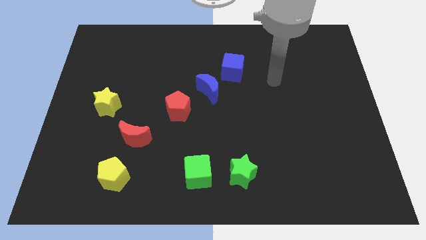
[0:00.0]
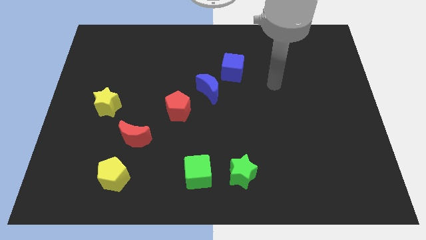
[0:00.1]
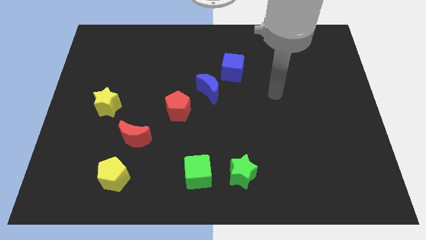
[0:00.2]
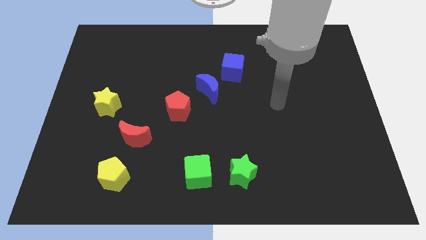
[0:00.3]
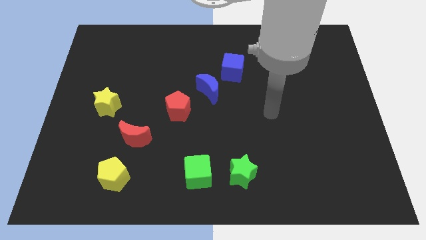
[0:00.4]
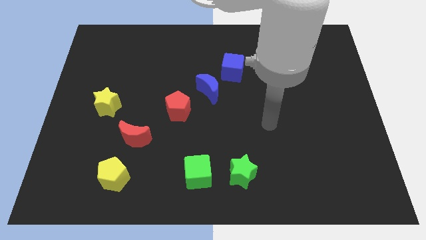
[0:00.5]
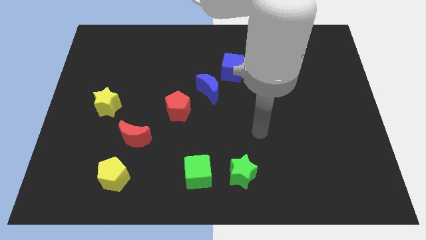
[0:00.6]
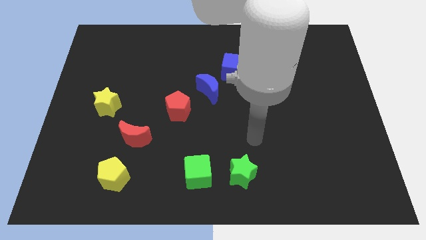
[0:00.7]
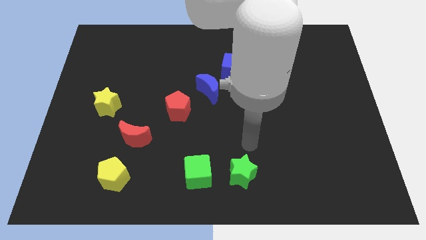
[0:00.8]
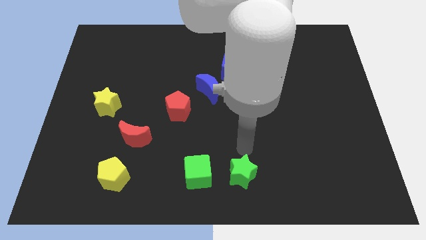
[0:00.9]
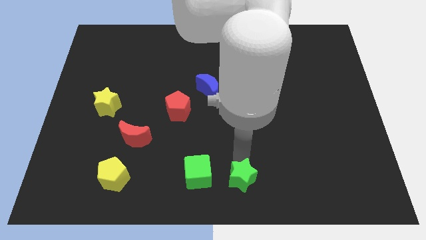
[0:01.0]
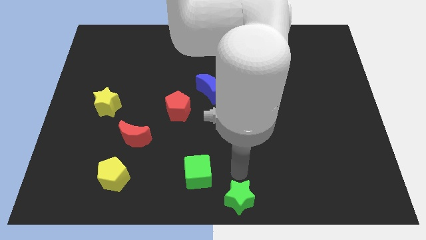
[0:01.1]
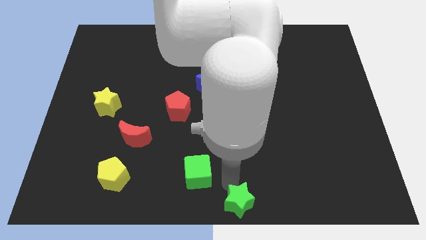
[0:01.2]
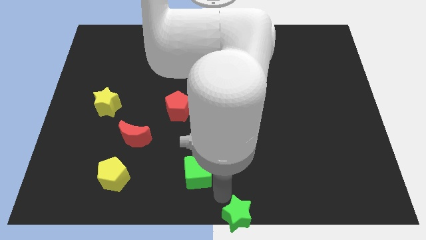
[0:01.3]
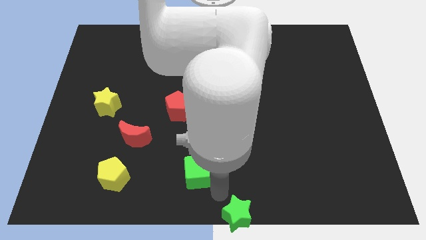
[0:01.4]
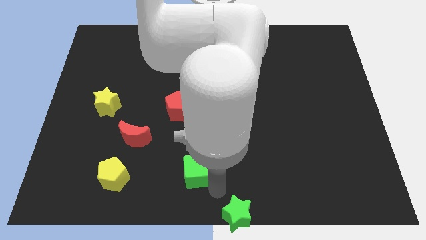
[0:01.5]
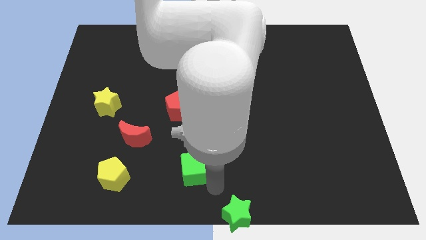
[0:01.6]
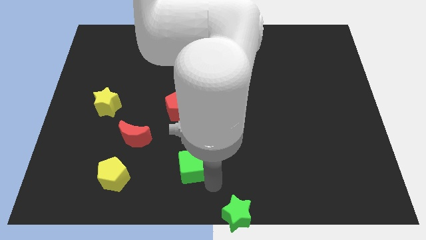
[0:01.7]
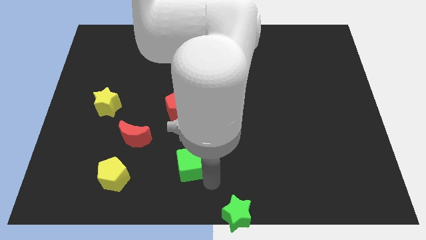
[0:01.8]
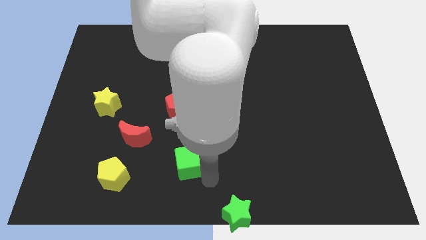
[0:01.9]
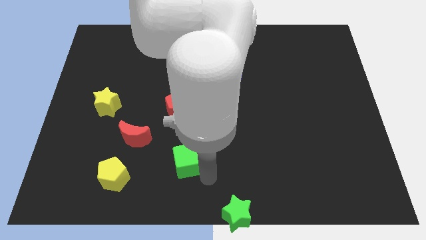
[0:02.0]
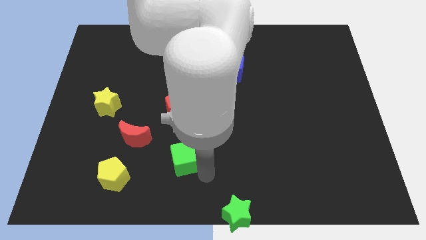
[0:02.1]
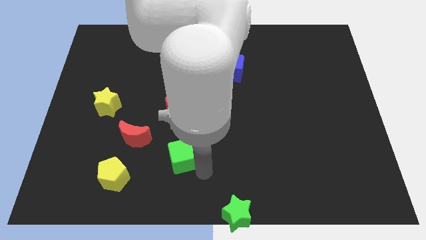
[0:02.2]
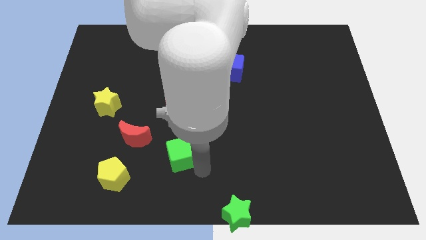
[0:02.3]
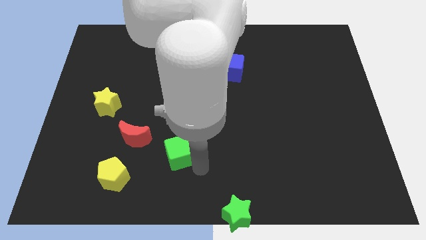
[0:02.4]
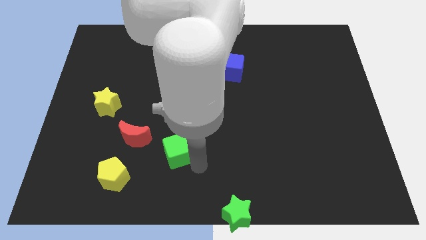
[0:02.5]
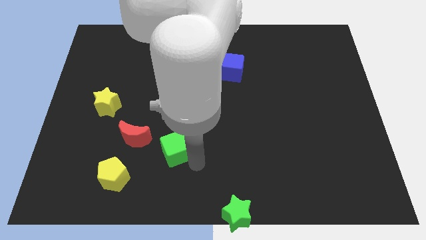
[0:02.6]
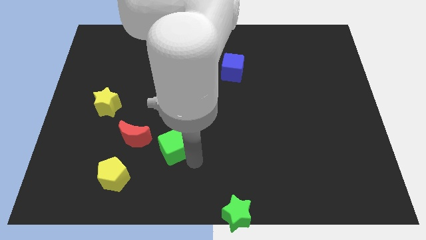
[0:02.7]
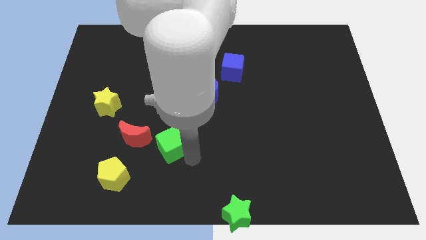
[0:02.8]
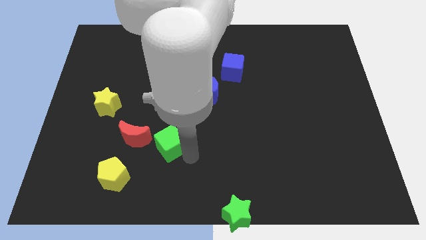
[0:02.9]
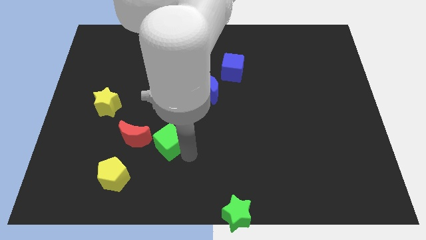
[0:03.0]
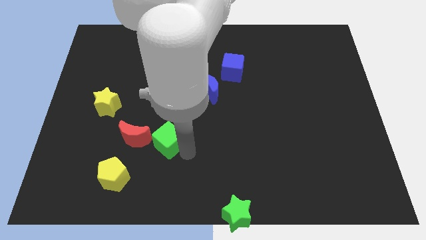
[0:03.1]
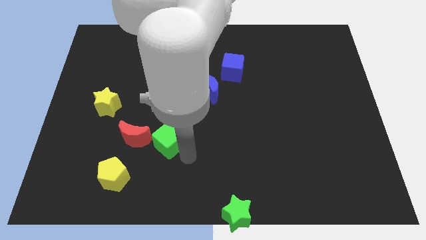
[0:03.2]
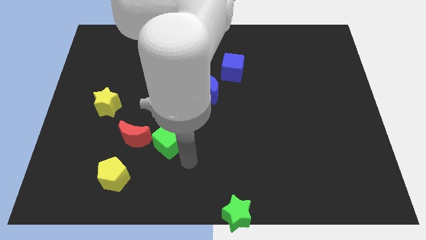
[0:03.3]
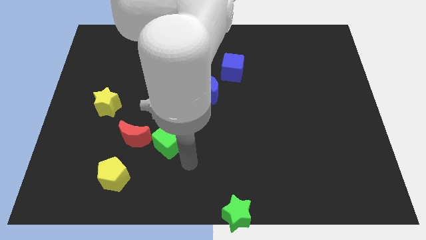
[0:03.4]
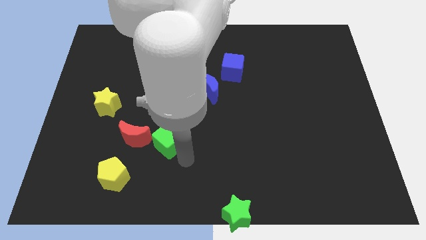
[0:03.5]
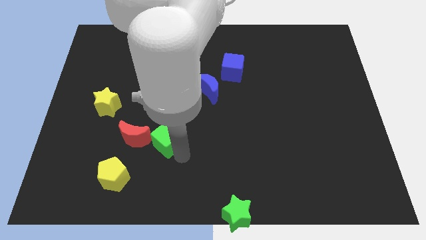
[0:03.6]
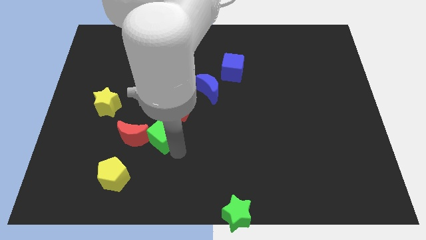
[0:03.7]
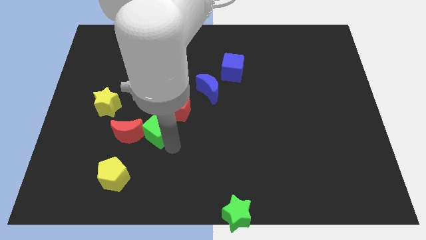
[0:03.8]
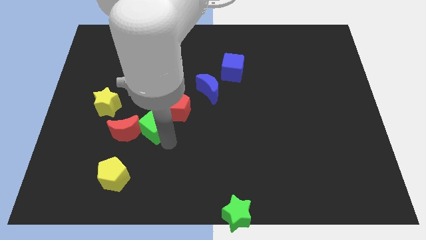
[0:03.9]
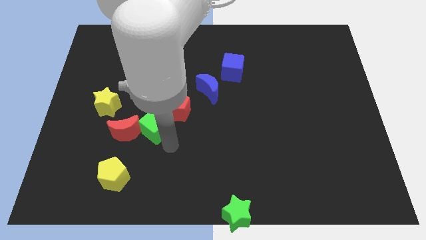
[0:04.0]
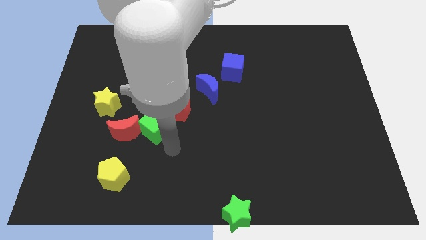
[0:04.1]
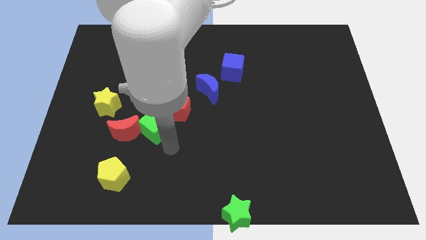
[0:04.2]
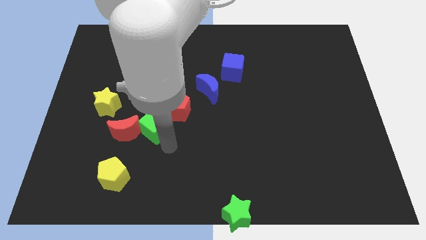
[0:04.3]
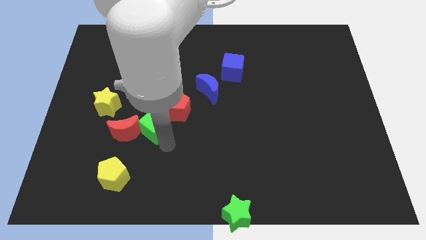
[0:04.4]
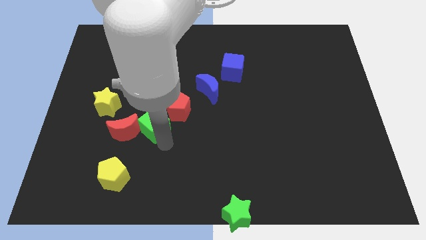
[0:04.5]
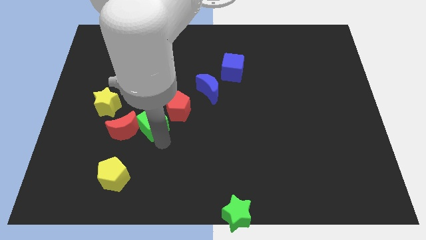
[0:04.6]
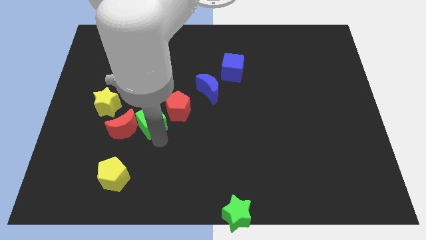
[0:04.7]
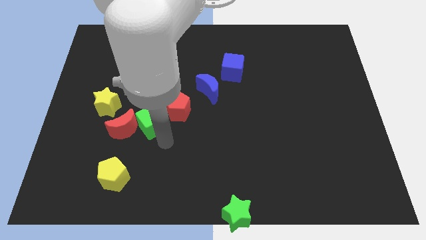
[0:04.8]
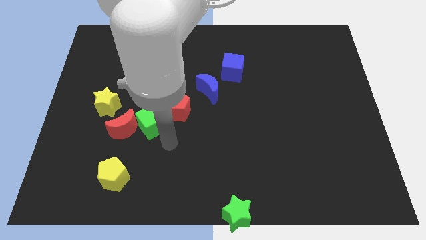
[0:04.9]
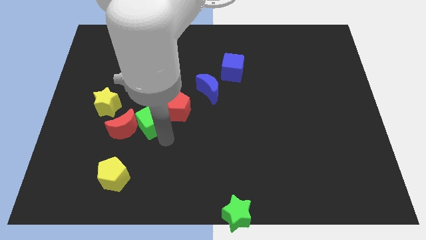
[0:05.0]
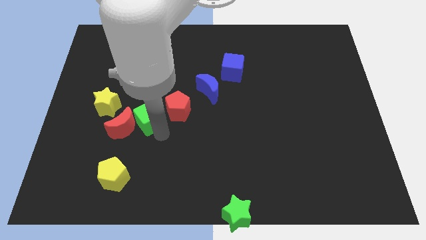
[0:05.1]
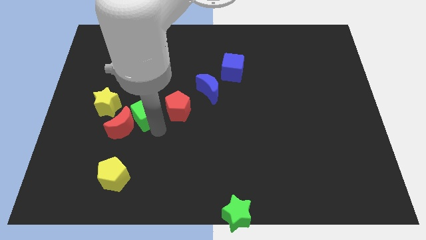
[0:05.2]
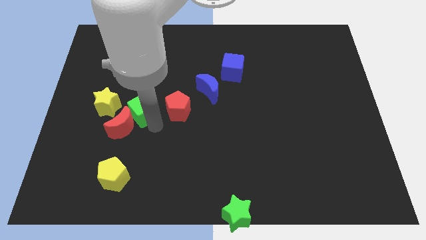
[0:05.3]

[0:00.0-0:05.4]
move the green cube up and to the left

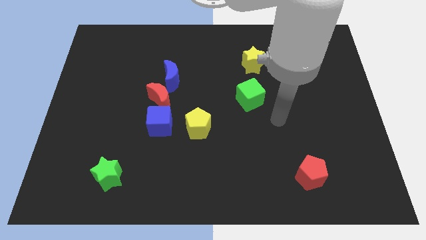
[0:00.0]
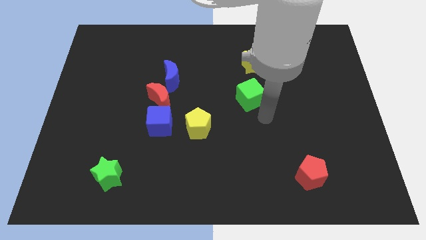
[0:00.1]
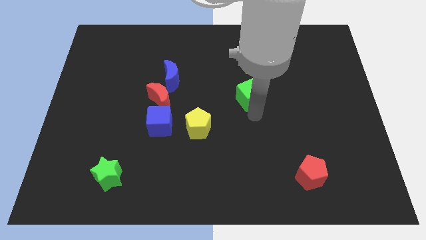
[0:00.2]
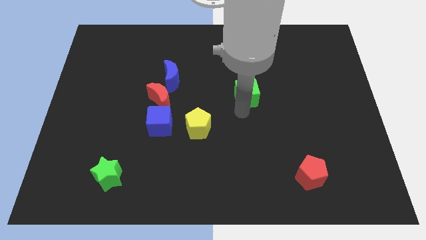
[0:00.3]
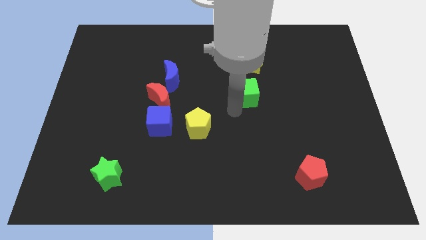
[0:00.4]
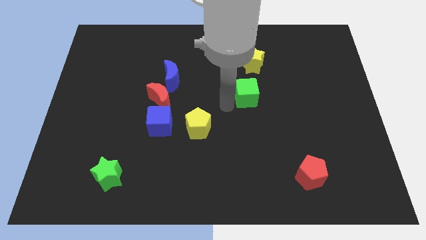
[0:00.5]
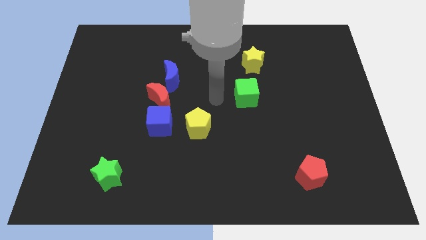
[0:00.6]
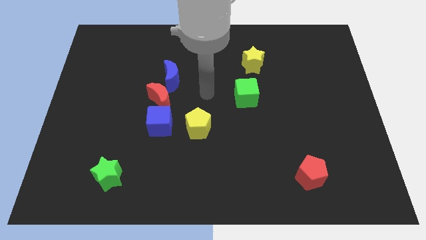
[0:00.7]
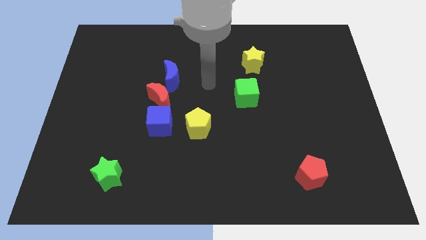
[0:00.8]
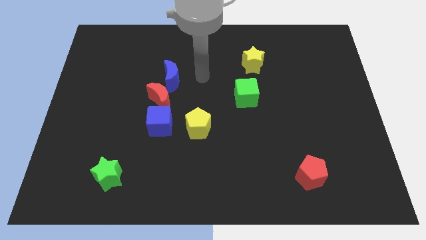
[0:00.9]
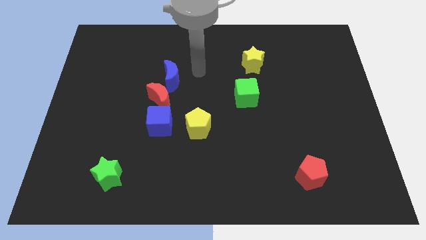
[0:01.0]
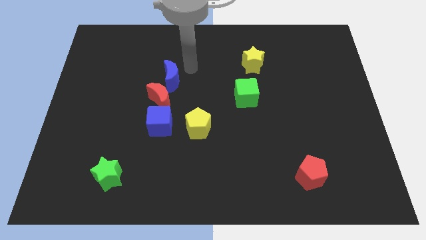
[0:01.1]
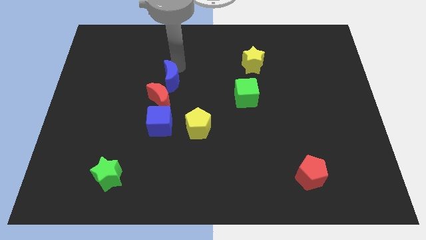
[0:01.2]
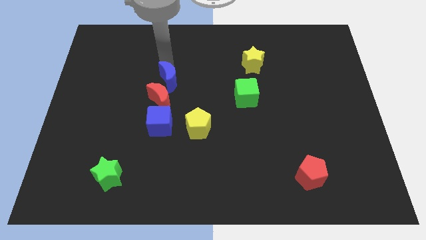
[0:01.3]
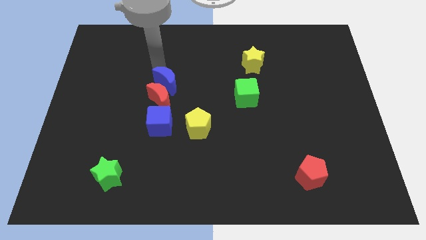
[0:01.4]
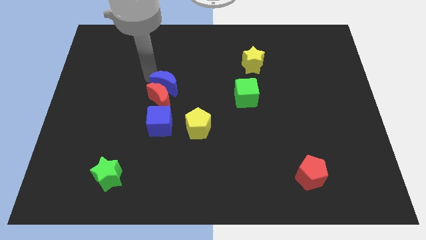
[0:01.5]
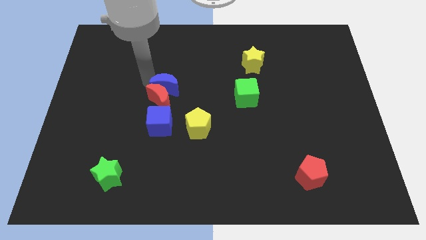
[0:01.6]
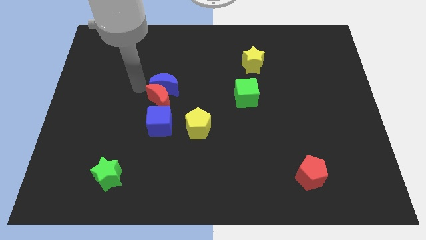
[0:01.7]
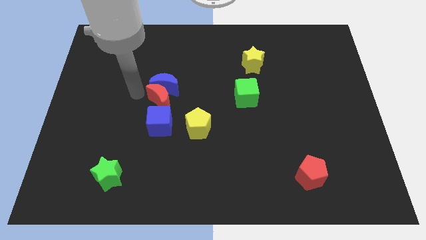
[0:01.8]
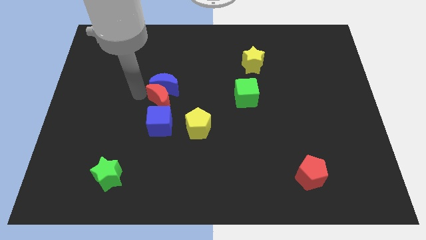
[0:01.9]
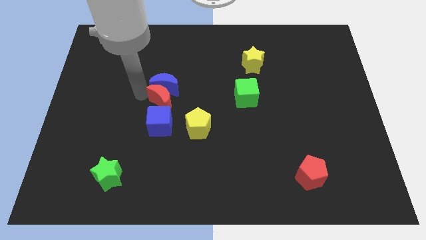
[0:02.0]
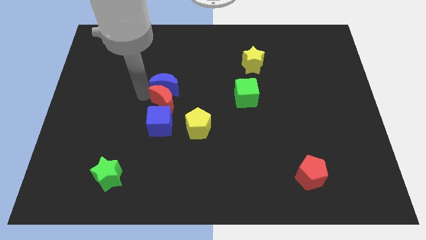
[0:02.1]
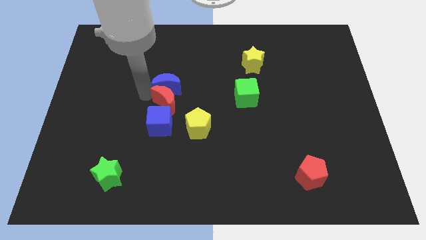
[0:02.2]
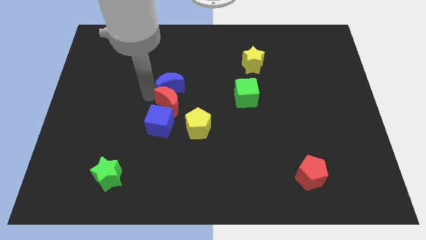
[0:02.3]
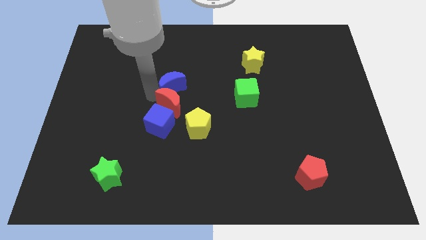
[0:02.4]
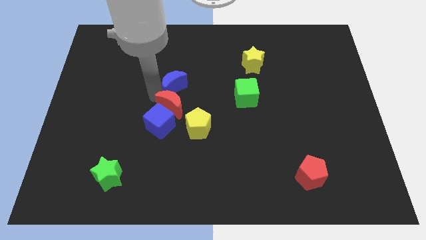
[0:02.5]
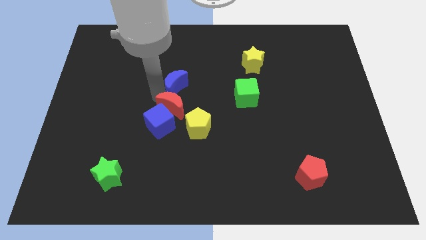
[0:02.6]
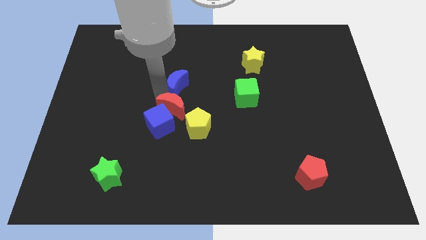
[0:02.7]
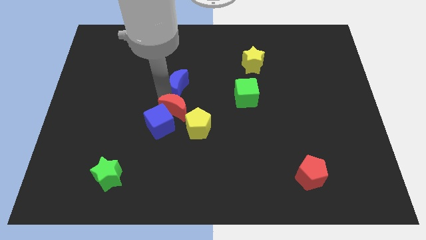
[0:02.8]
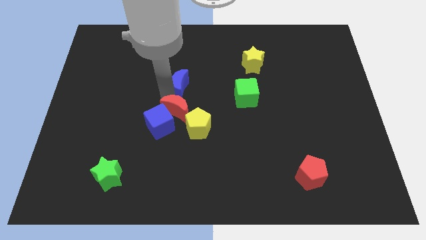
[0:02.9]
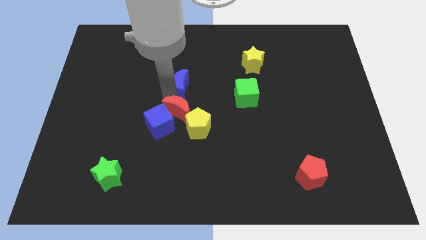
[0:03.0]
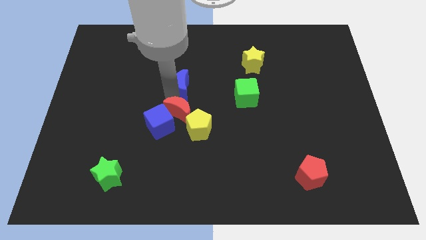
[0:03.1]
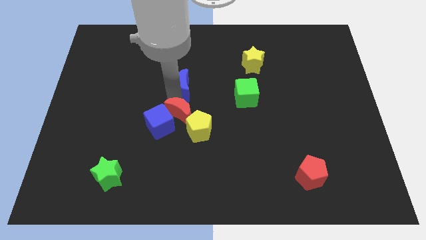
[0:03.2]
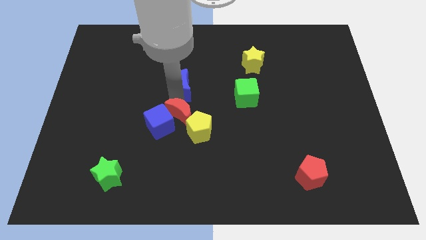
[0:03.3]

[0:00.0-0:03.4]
push the red moon downwards and then to the right slightly
